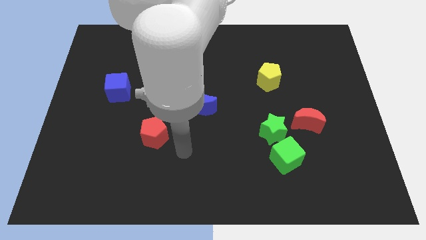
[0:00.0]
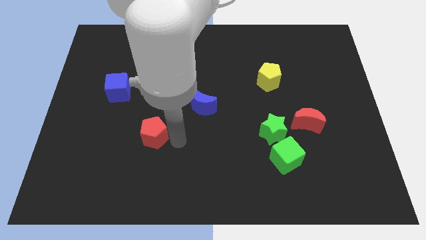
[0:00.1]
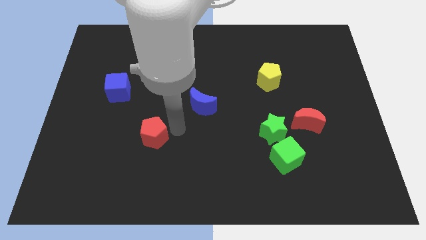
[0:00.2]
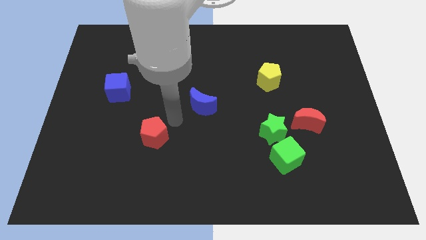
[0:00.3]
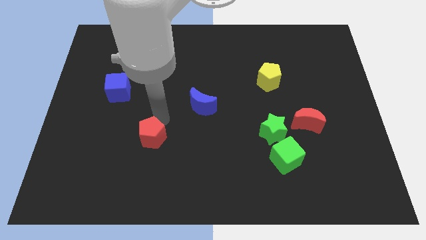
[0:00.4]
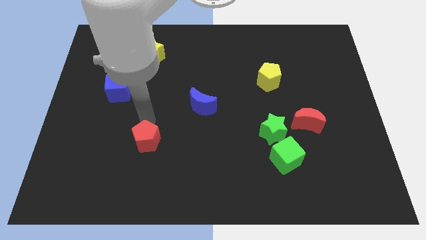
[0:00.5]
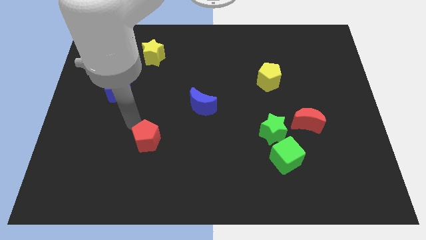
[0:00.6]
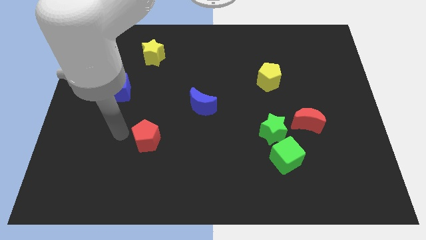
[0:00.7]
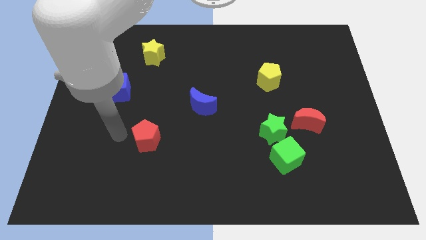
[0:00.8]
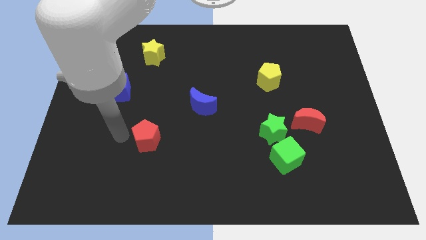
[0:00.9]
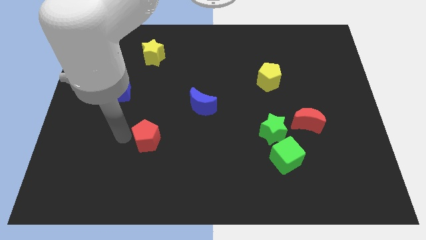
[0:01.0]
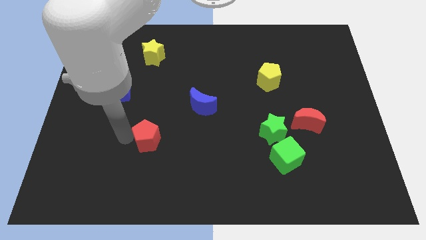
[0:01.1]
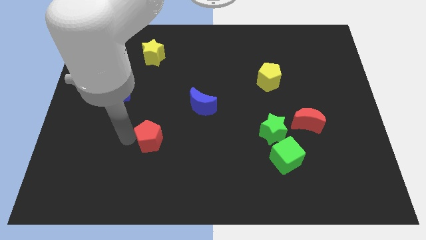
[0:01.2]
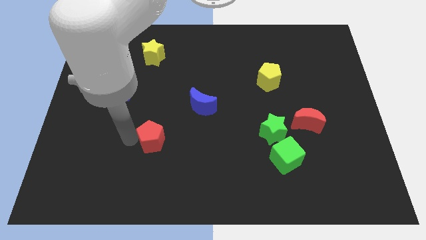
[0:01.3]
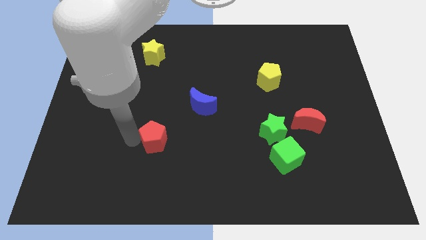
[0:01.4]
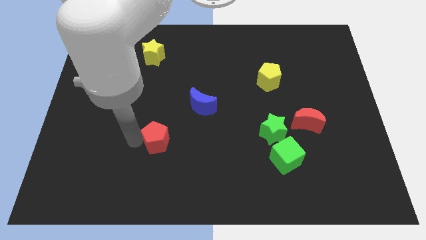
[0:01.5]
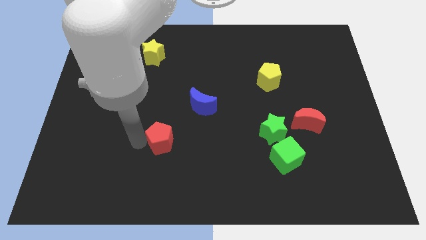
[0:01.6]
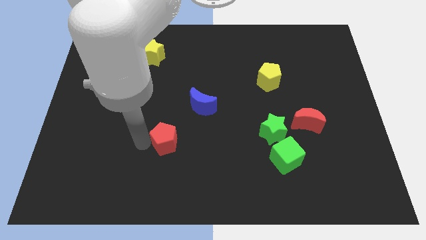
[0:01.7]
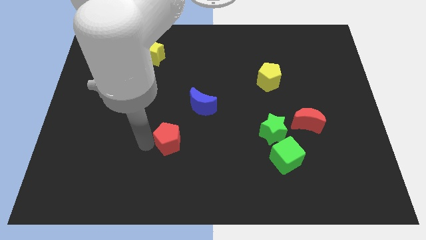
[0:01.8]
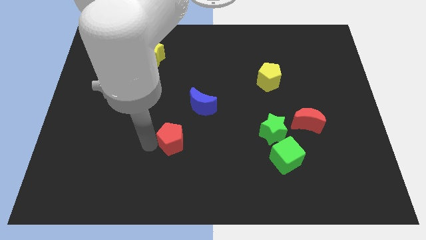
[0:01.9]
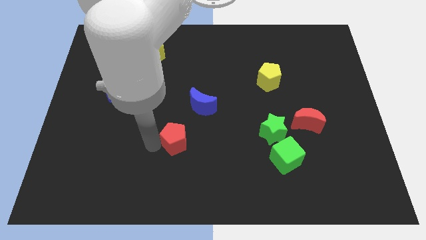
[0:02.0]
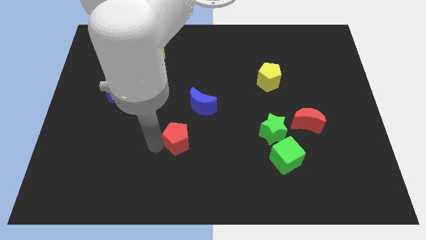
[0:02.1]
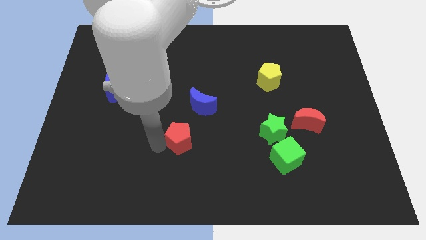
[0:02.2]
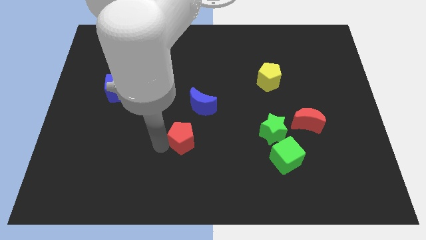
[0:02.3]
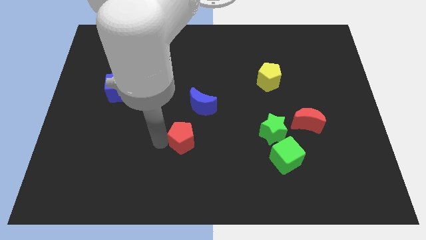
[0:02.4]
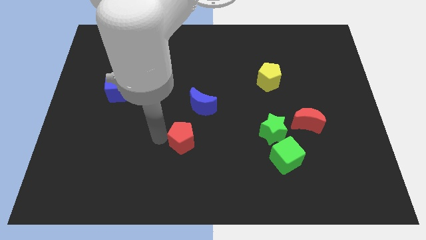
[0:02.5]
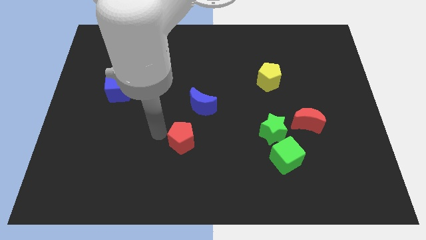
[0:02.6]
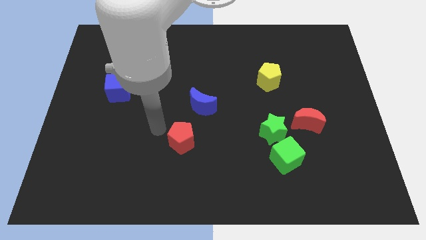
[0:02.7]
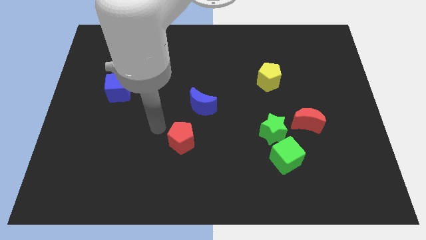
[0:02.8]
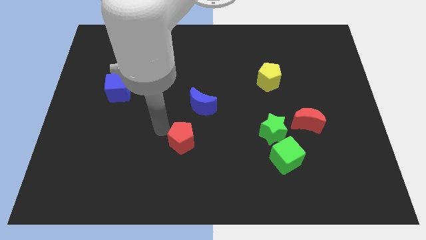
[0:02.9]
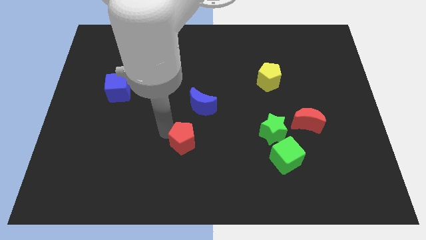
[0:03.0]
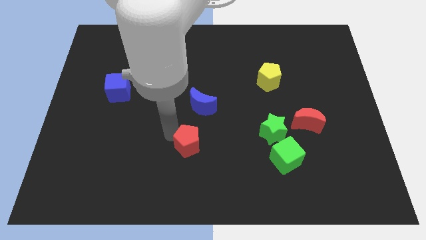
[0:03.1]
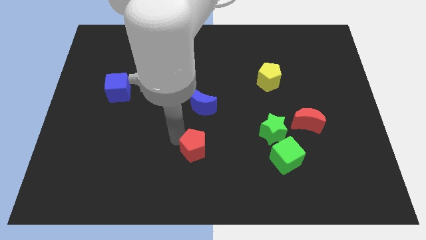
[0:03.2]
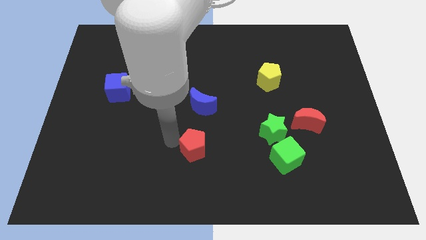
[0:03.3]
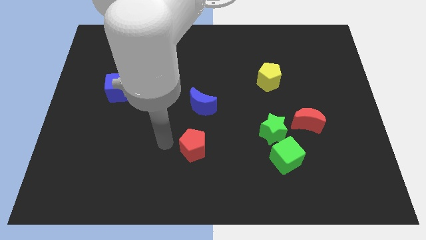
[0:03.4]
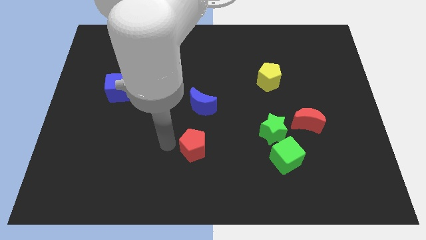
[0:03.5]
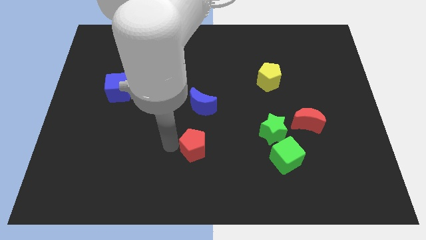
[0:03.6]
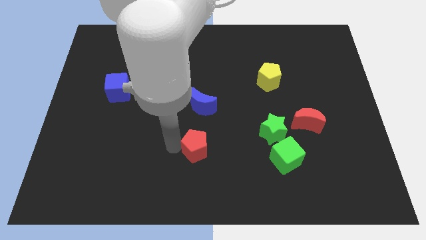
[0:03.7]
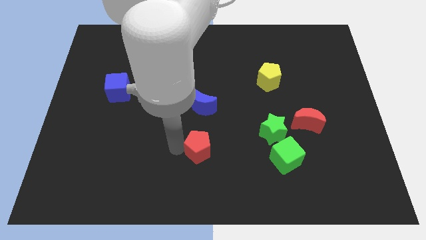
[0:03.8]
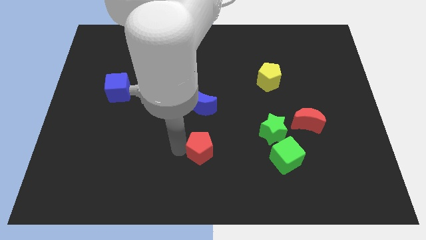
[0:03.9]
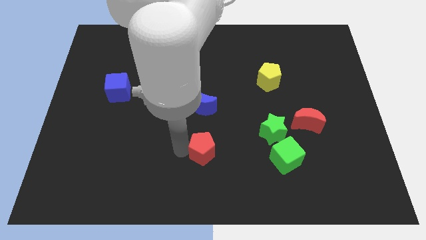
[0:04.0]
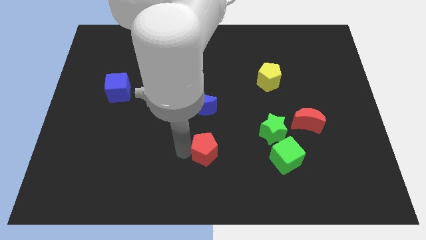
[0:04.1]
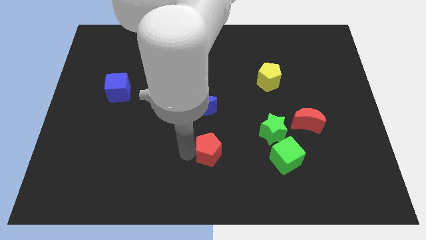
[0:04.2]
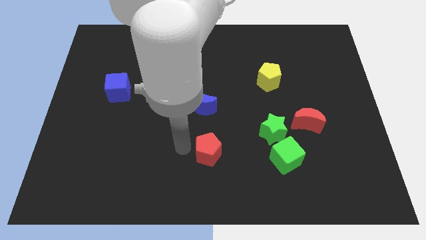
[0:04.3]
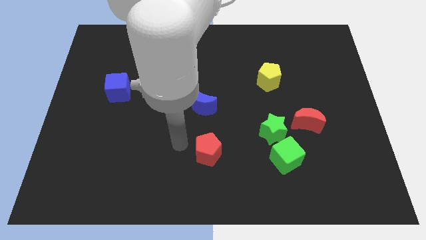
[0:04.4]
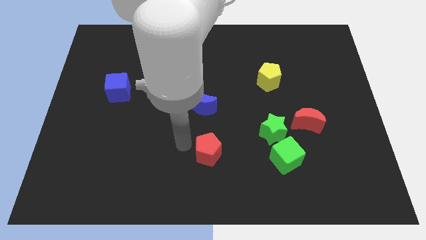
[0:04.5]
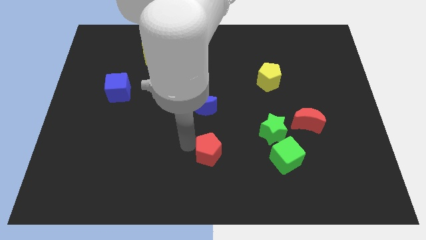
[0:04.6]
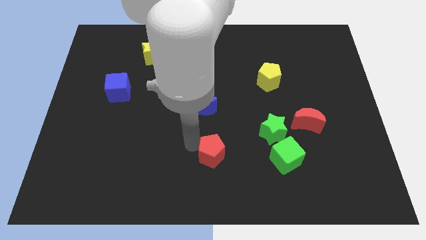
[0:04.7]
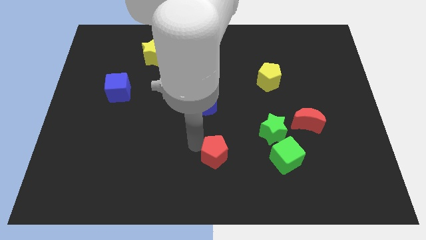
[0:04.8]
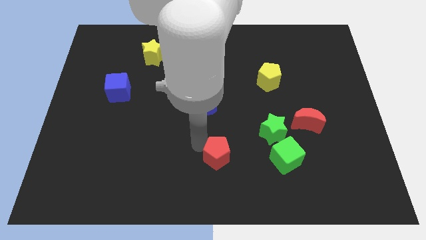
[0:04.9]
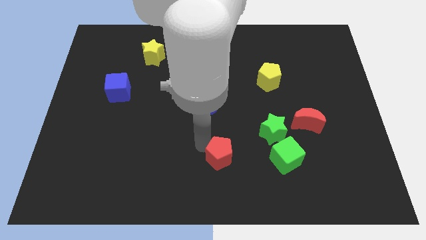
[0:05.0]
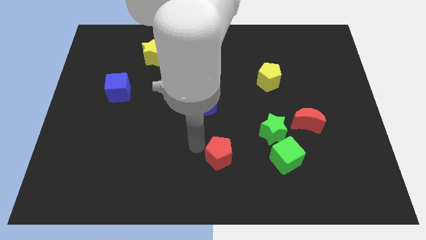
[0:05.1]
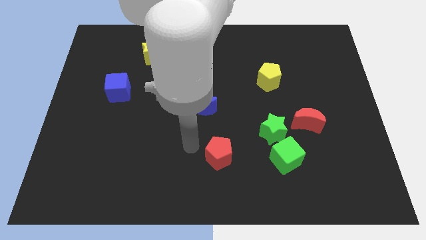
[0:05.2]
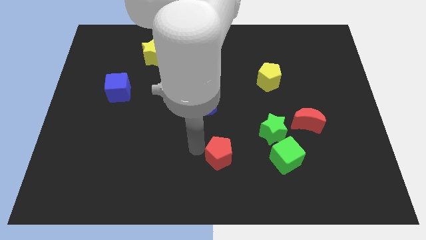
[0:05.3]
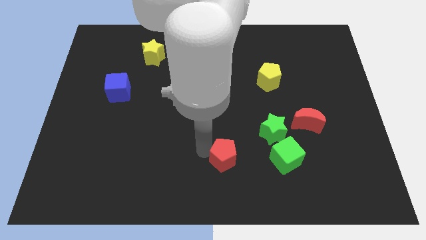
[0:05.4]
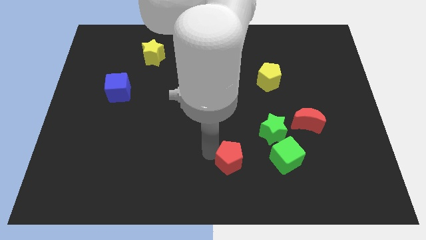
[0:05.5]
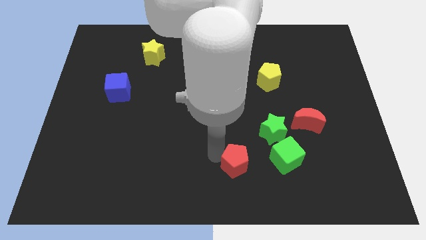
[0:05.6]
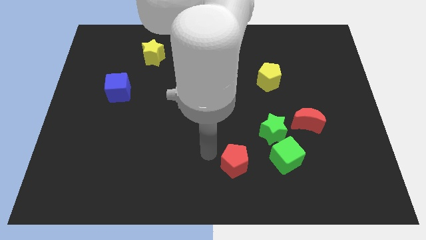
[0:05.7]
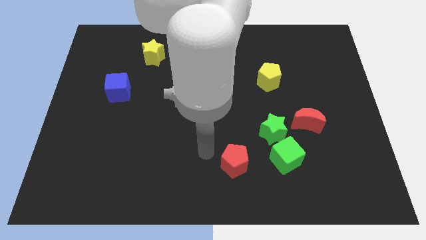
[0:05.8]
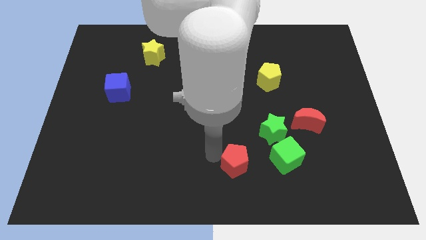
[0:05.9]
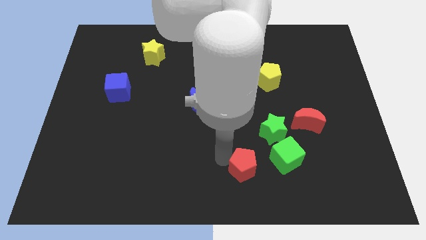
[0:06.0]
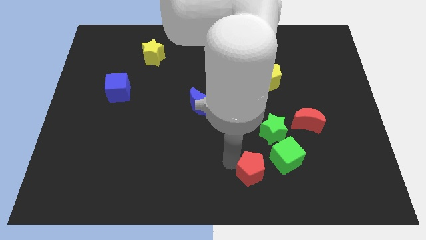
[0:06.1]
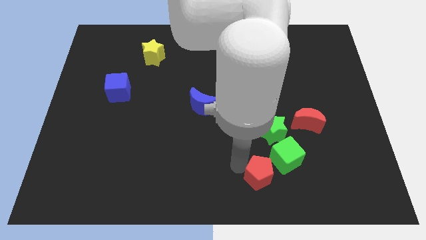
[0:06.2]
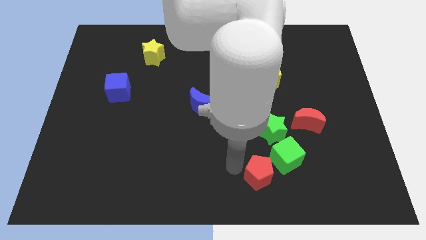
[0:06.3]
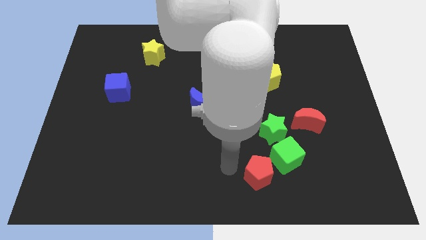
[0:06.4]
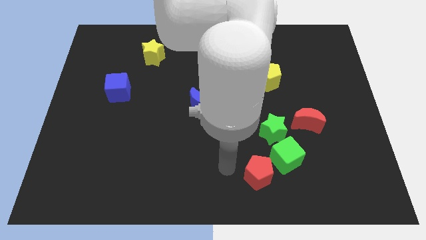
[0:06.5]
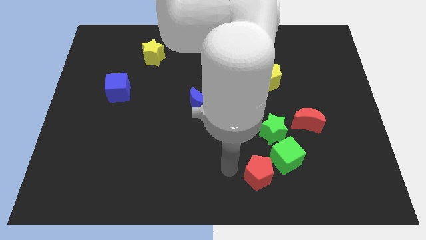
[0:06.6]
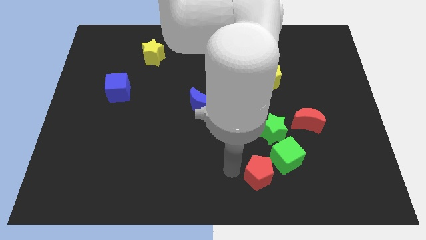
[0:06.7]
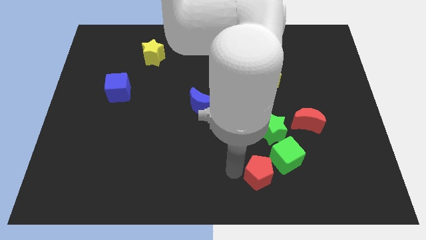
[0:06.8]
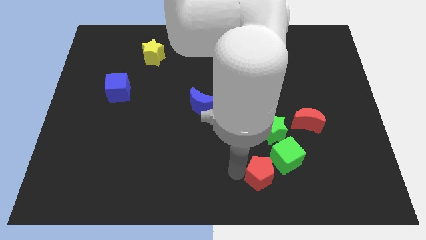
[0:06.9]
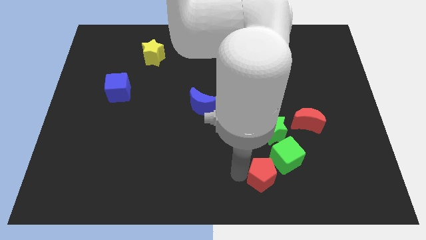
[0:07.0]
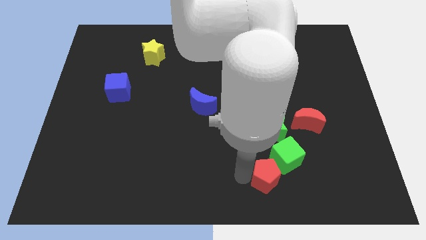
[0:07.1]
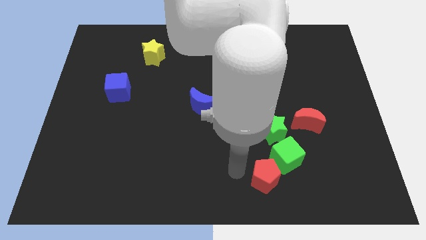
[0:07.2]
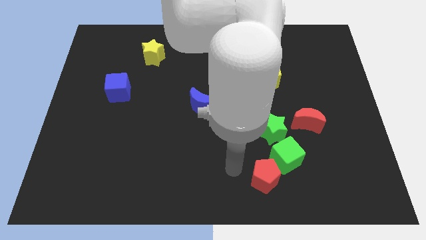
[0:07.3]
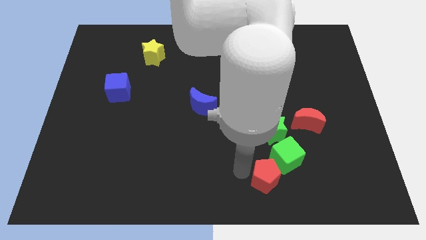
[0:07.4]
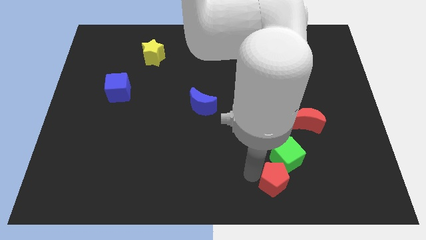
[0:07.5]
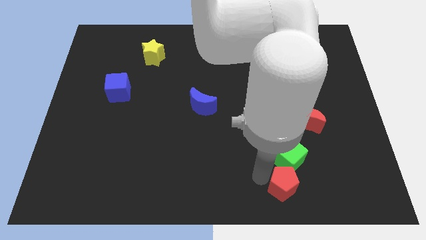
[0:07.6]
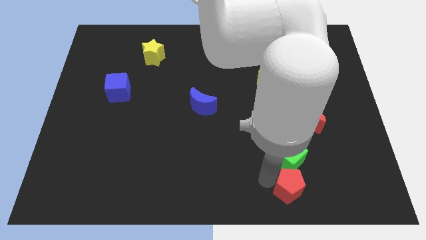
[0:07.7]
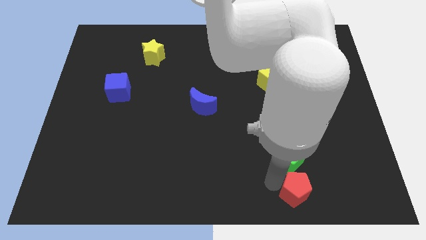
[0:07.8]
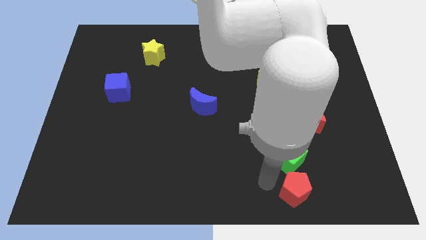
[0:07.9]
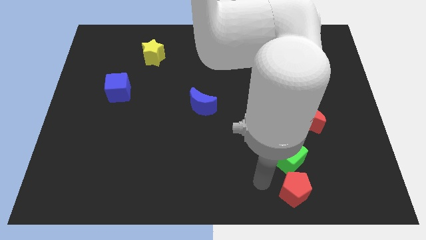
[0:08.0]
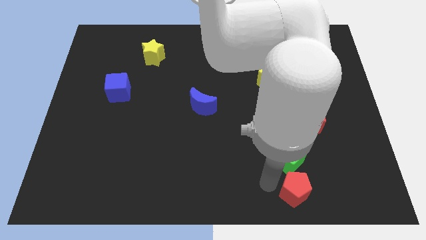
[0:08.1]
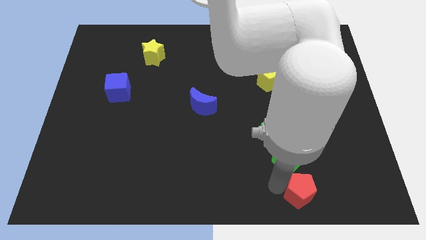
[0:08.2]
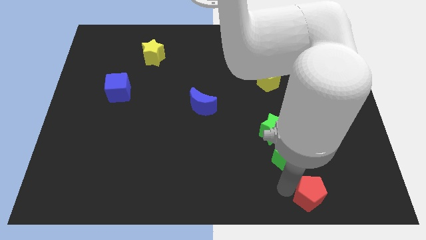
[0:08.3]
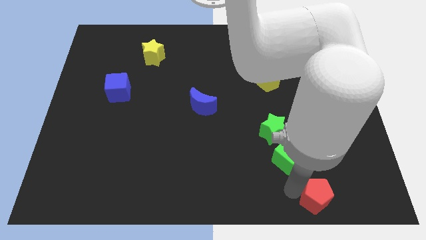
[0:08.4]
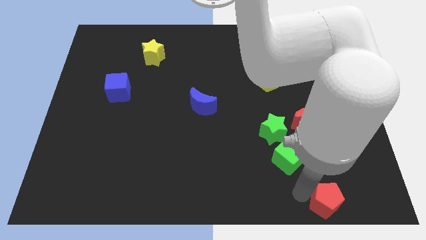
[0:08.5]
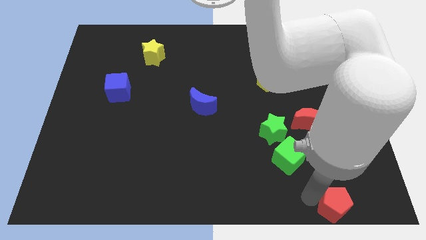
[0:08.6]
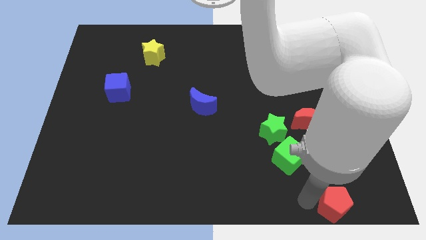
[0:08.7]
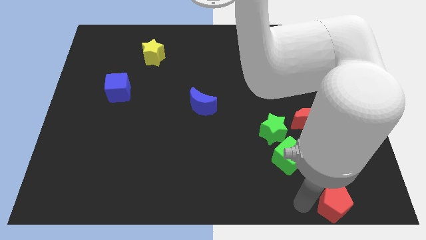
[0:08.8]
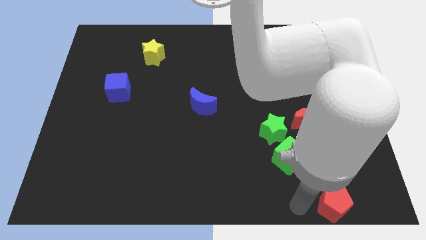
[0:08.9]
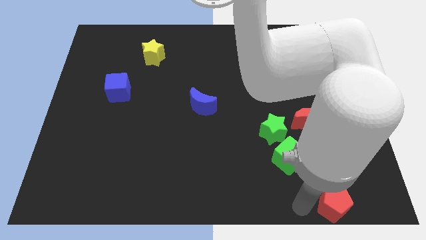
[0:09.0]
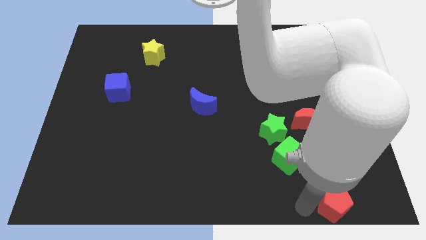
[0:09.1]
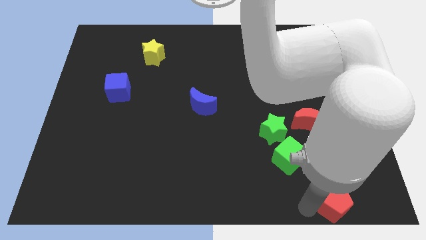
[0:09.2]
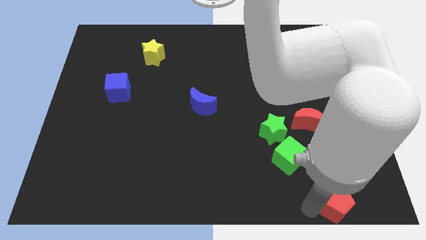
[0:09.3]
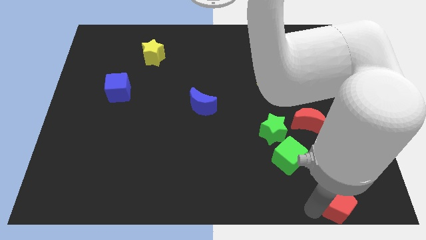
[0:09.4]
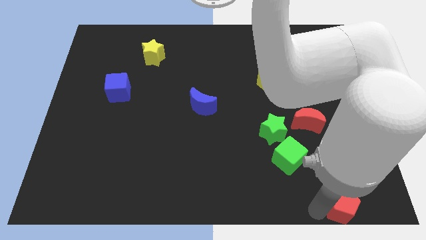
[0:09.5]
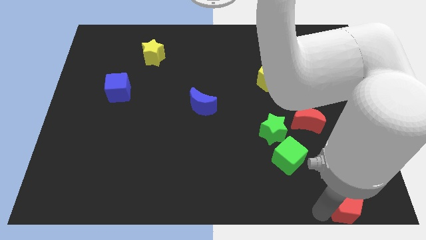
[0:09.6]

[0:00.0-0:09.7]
put the red pentagon to the bottom right corner
